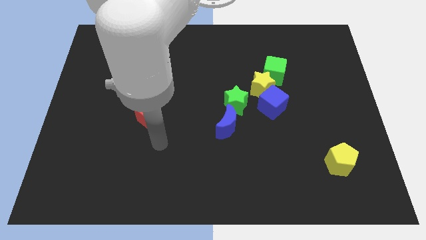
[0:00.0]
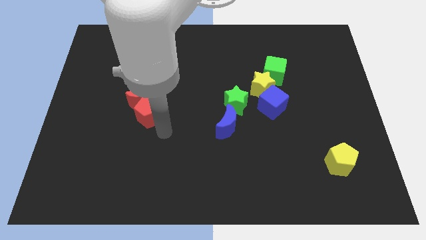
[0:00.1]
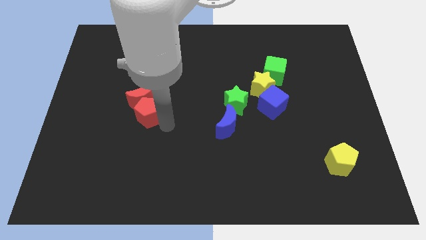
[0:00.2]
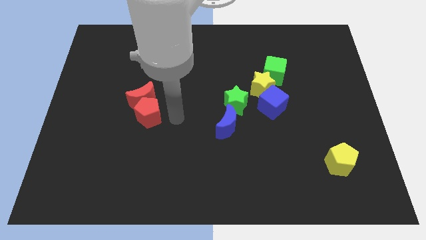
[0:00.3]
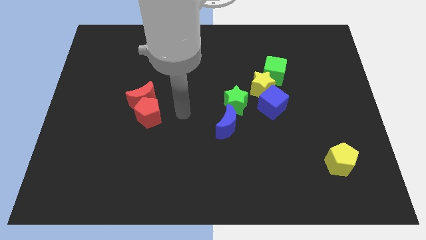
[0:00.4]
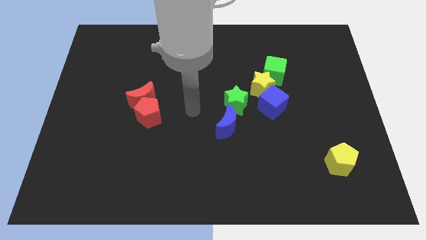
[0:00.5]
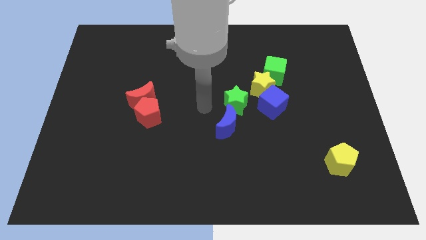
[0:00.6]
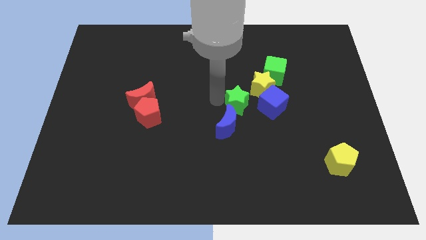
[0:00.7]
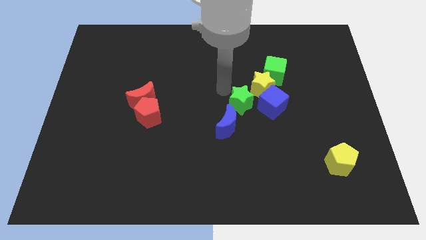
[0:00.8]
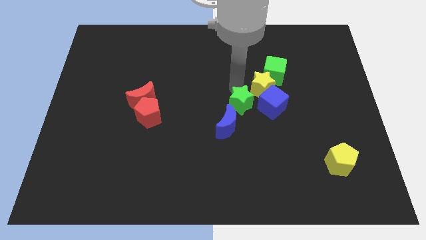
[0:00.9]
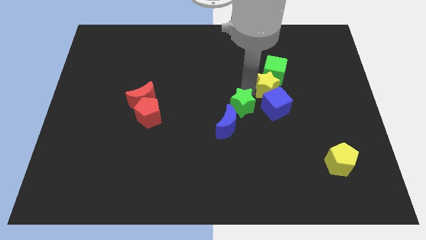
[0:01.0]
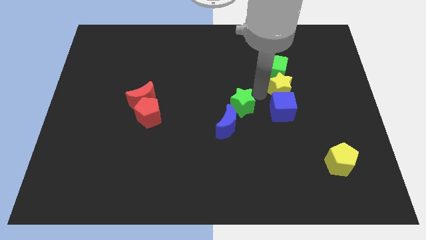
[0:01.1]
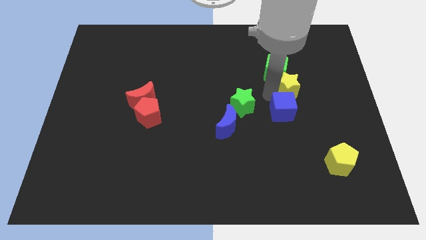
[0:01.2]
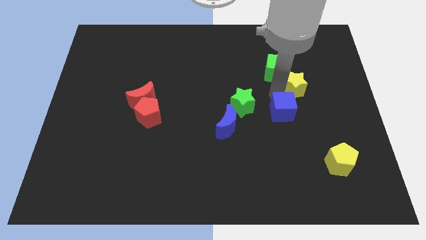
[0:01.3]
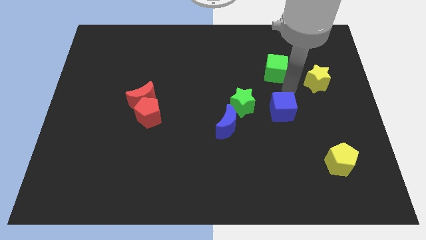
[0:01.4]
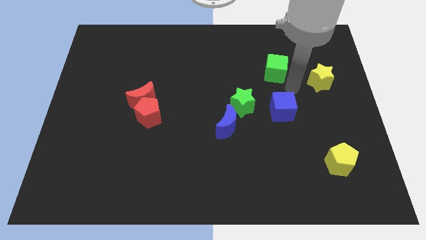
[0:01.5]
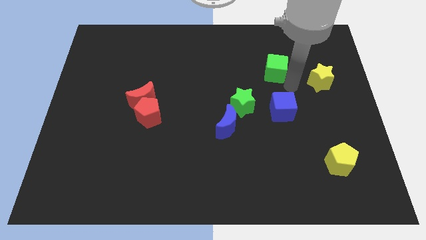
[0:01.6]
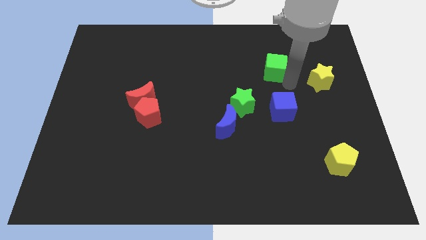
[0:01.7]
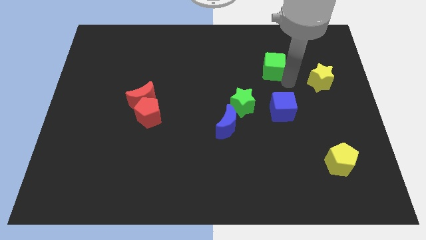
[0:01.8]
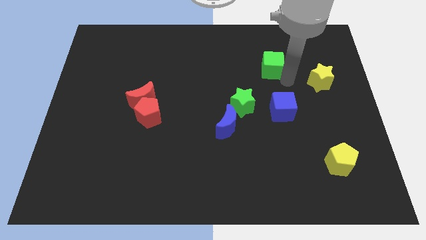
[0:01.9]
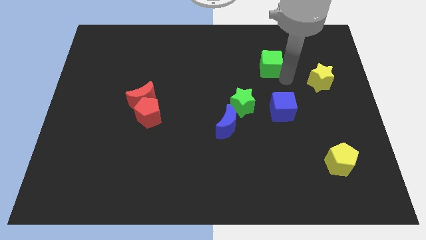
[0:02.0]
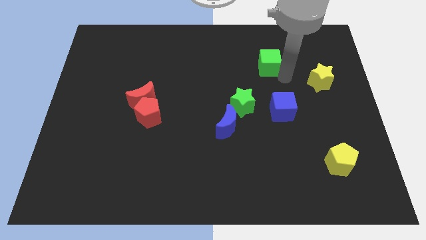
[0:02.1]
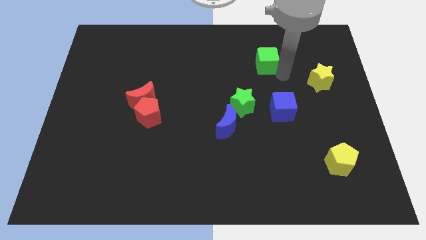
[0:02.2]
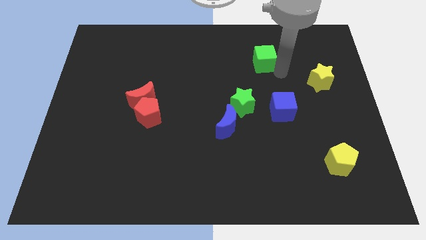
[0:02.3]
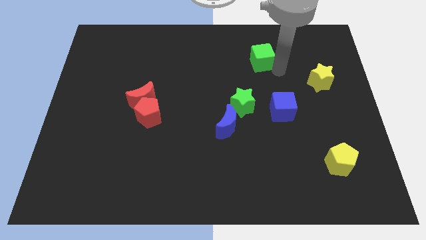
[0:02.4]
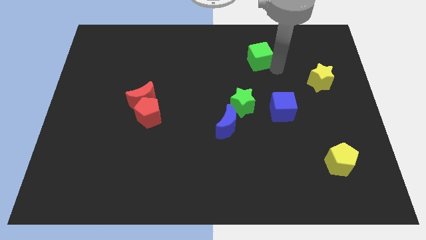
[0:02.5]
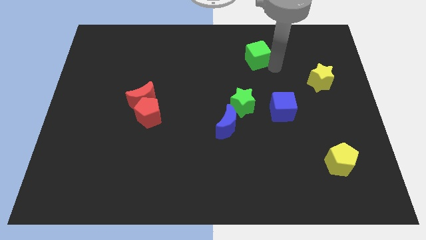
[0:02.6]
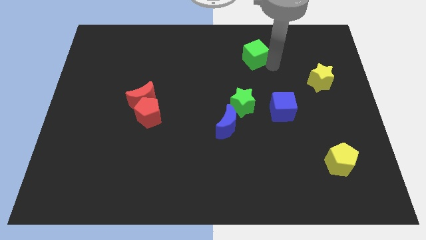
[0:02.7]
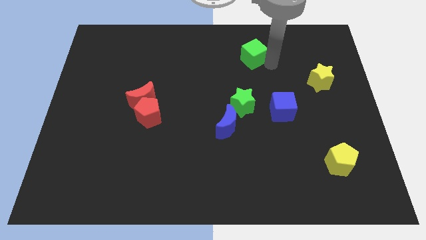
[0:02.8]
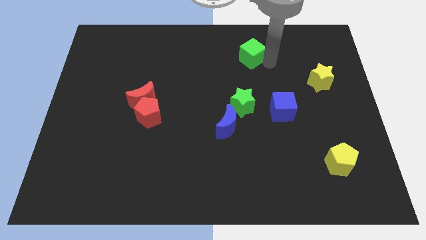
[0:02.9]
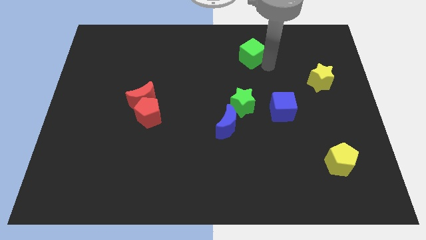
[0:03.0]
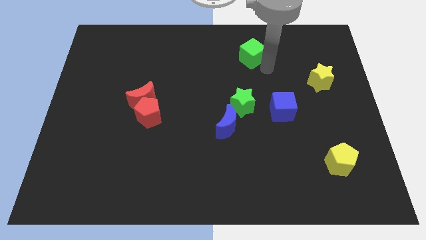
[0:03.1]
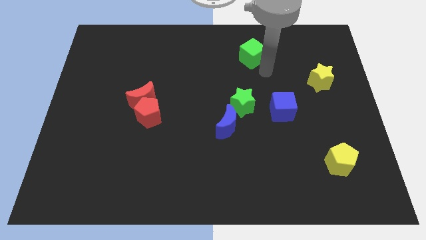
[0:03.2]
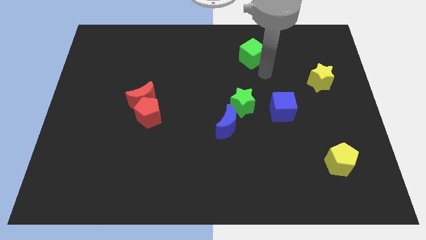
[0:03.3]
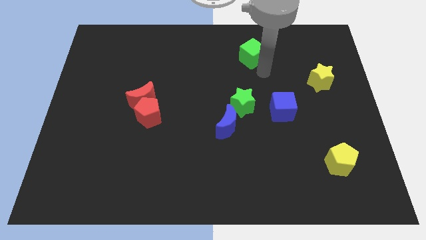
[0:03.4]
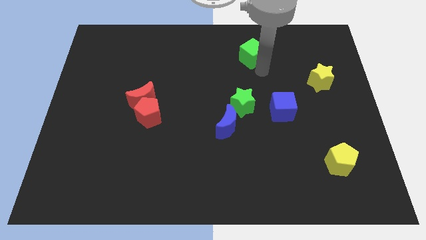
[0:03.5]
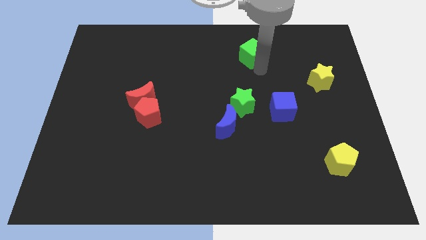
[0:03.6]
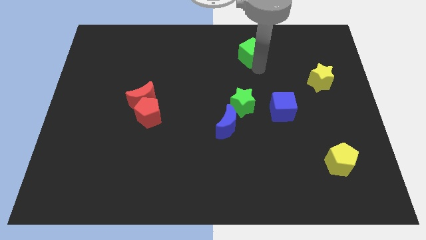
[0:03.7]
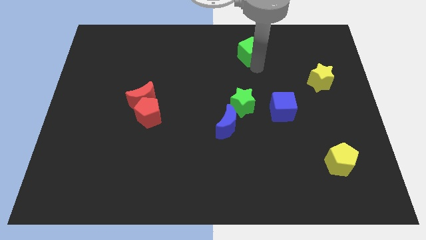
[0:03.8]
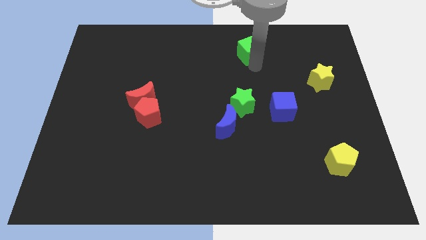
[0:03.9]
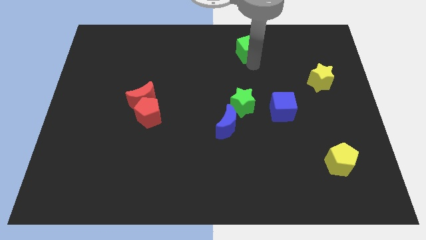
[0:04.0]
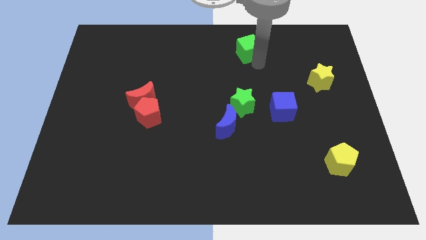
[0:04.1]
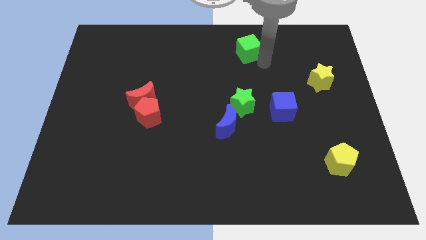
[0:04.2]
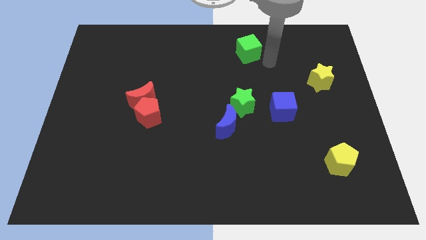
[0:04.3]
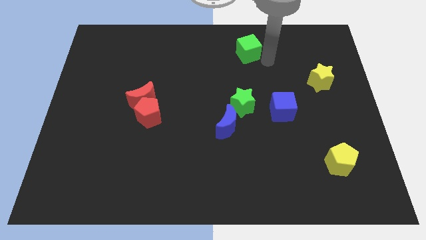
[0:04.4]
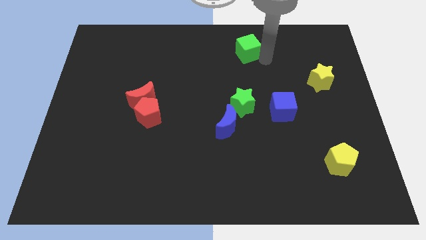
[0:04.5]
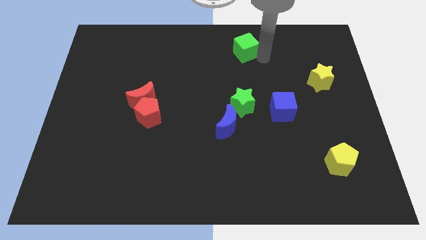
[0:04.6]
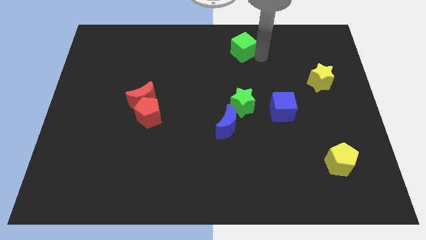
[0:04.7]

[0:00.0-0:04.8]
put the green cube to the top side

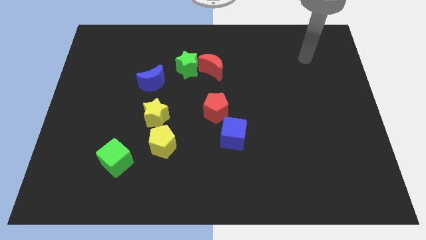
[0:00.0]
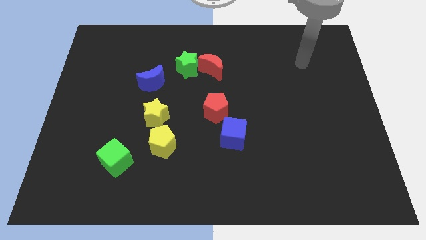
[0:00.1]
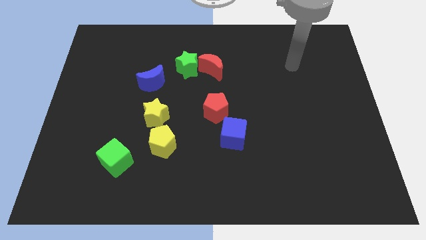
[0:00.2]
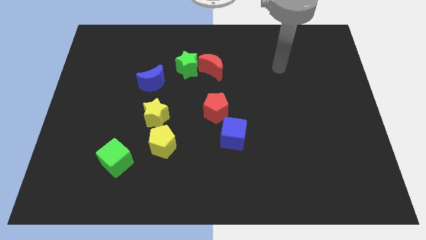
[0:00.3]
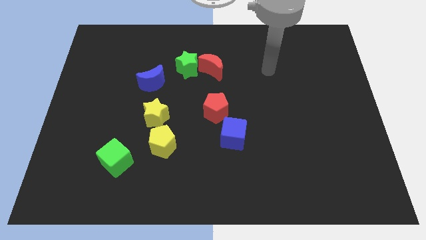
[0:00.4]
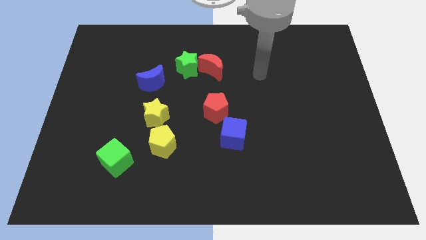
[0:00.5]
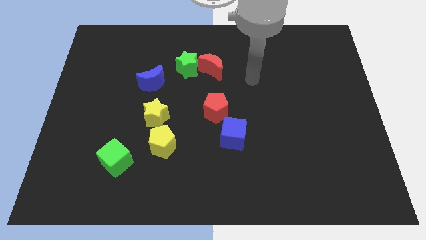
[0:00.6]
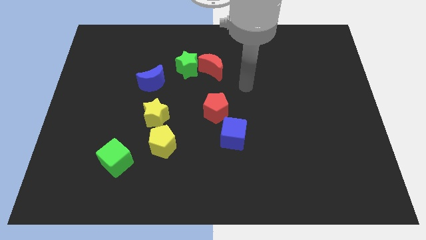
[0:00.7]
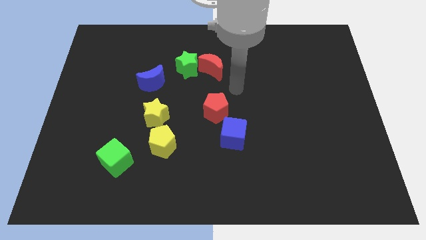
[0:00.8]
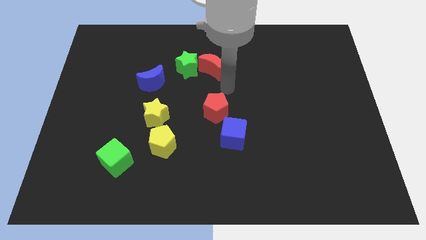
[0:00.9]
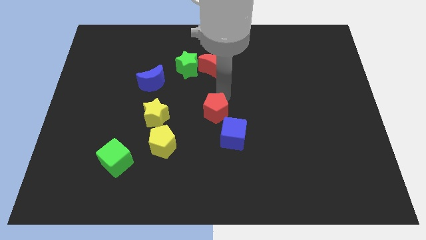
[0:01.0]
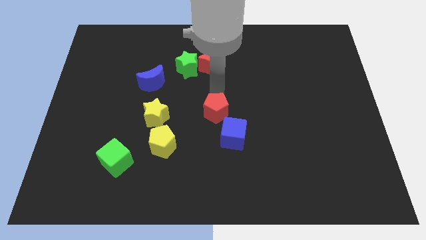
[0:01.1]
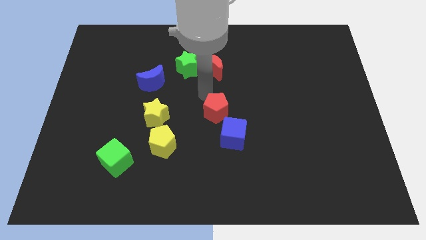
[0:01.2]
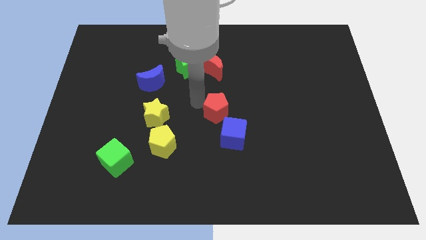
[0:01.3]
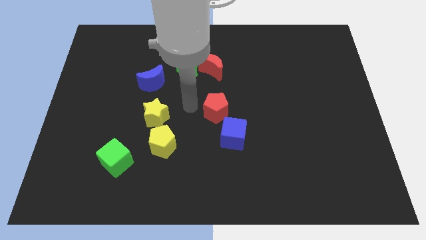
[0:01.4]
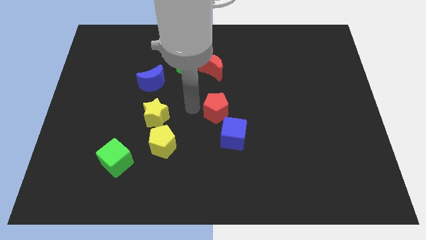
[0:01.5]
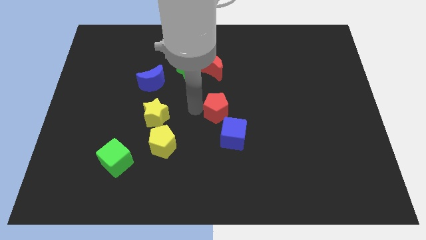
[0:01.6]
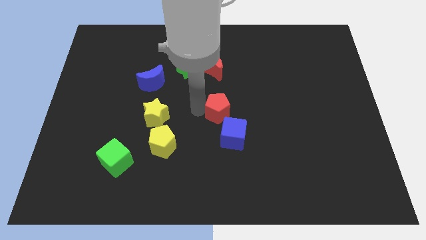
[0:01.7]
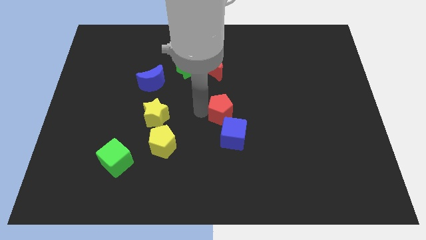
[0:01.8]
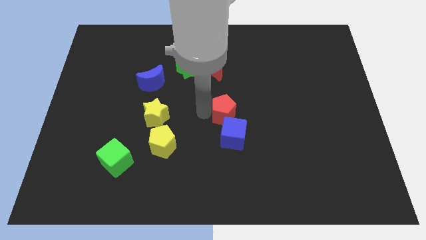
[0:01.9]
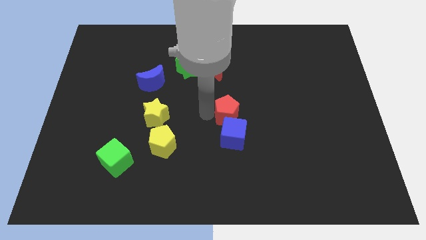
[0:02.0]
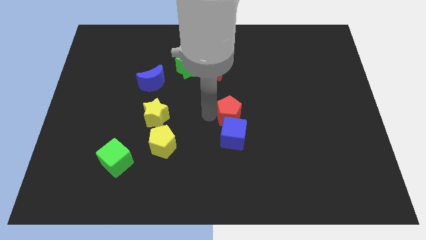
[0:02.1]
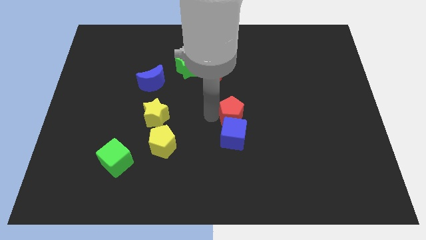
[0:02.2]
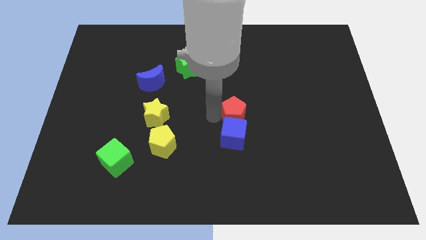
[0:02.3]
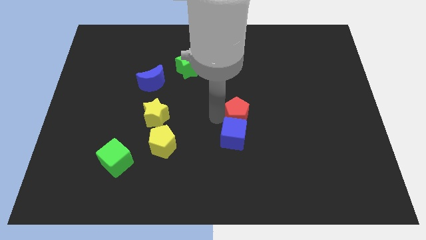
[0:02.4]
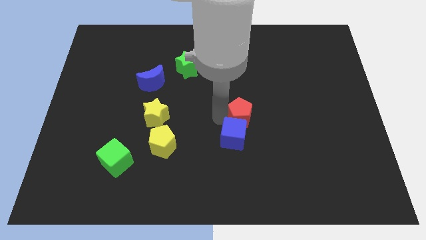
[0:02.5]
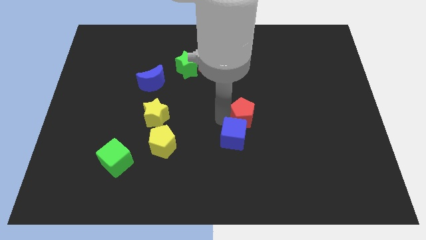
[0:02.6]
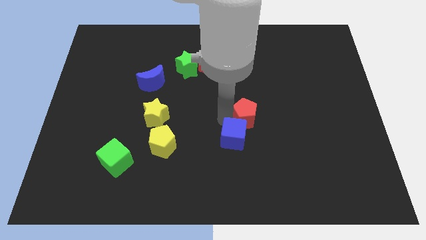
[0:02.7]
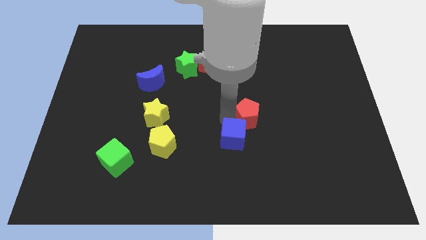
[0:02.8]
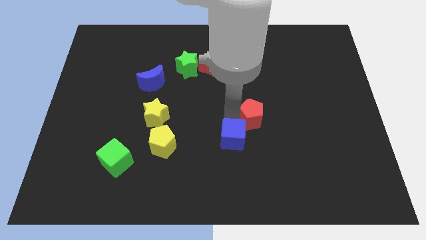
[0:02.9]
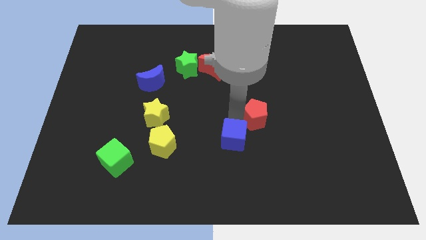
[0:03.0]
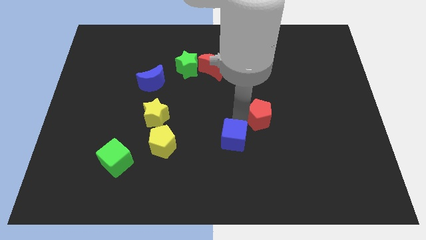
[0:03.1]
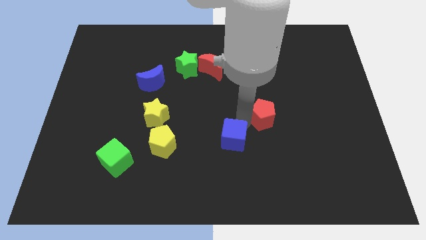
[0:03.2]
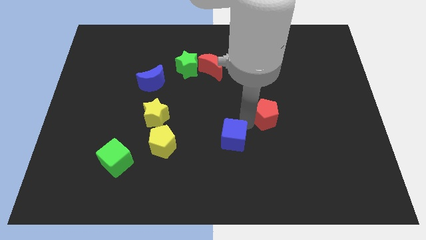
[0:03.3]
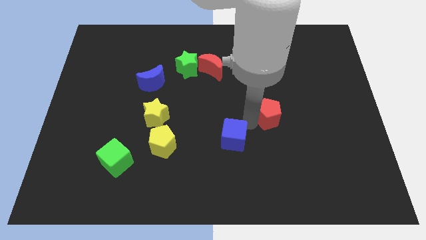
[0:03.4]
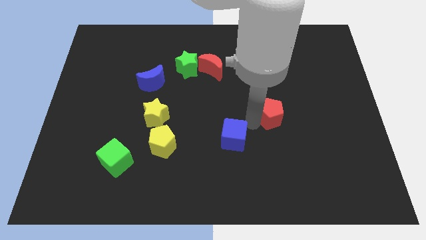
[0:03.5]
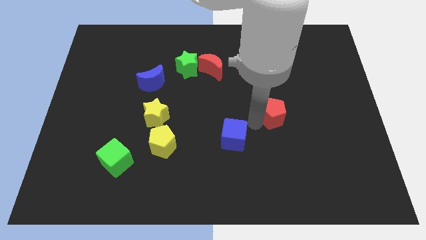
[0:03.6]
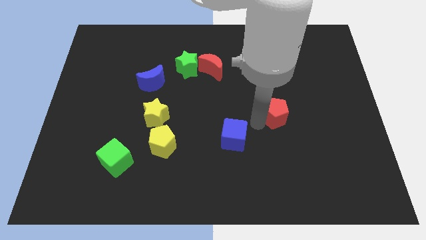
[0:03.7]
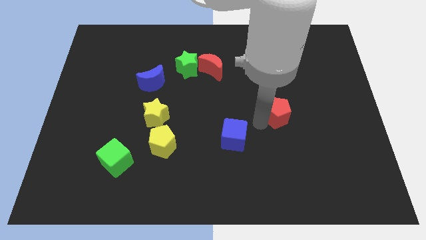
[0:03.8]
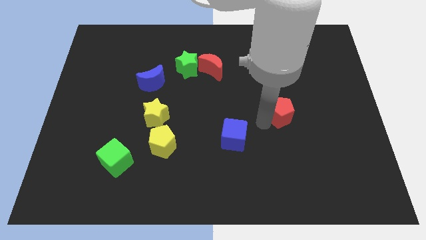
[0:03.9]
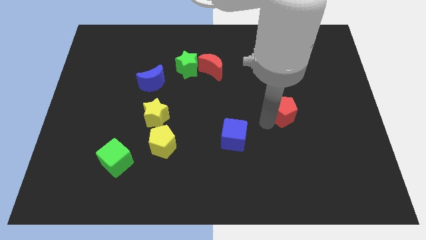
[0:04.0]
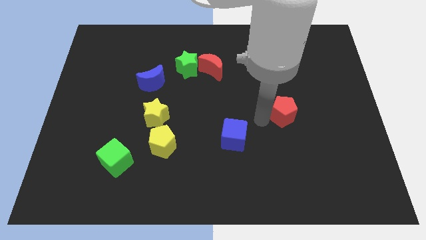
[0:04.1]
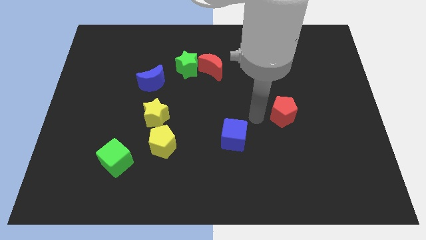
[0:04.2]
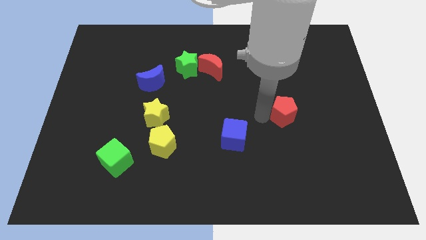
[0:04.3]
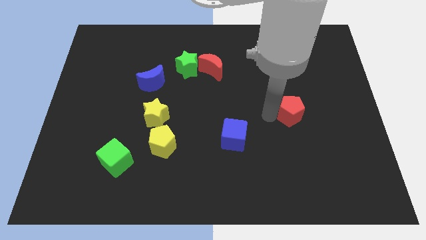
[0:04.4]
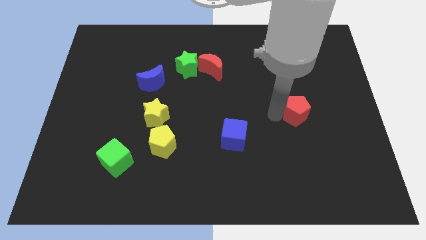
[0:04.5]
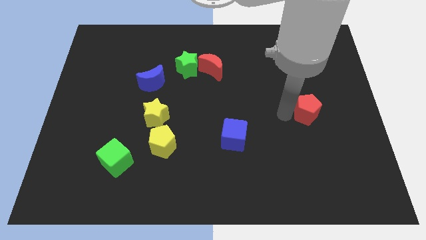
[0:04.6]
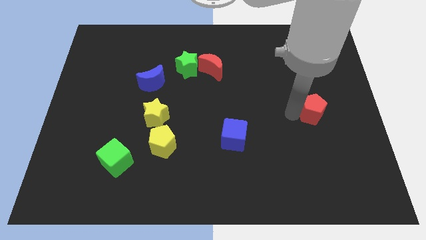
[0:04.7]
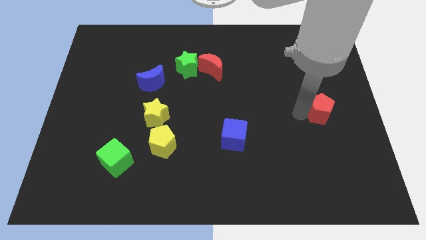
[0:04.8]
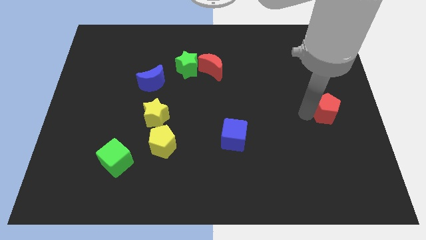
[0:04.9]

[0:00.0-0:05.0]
slide the red pentagon to the right side of the board
